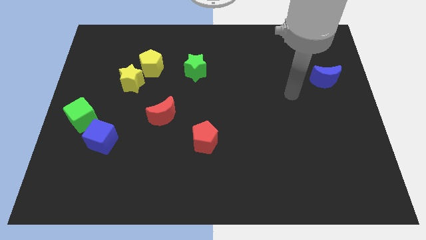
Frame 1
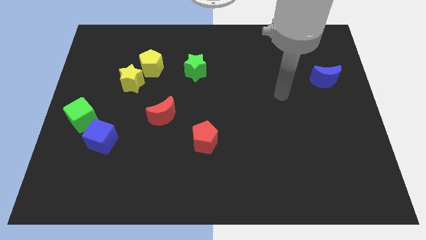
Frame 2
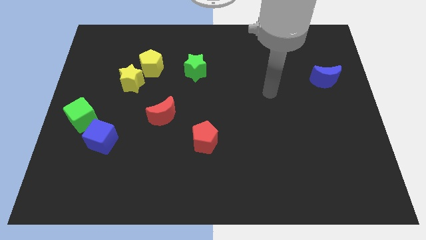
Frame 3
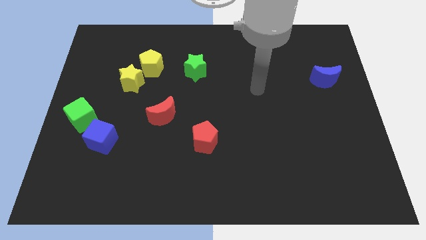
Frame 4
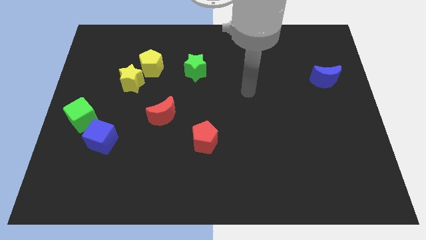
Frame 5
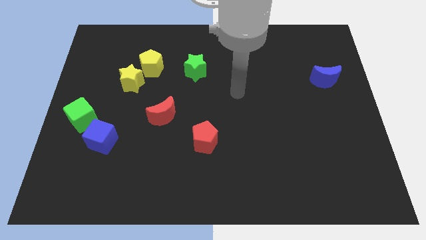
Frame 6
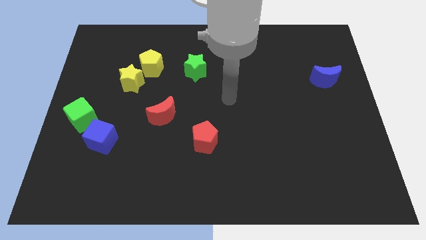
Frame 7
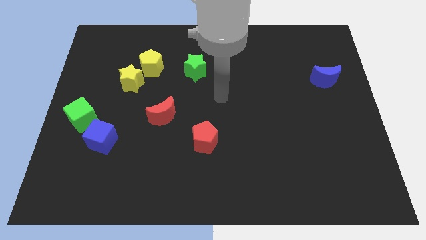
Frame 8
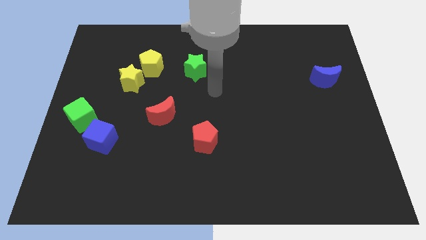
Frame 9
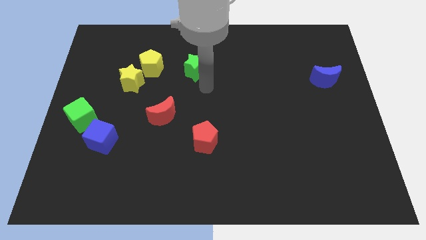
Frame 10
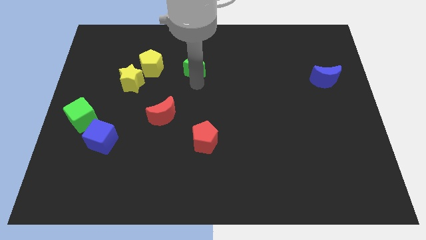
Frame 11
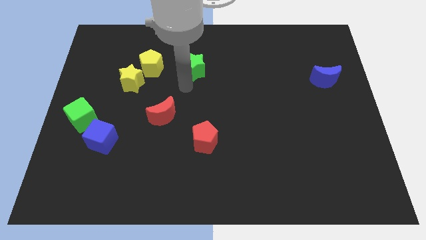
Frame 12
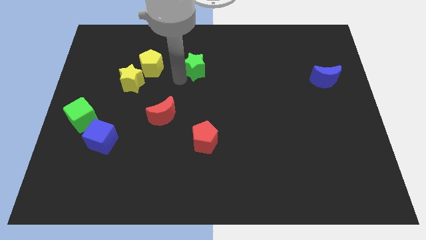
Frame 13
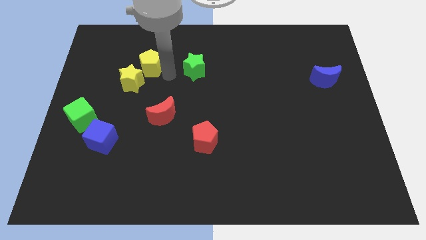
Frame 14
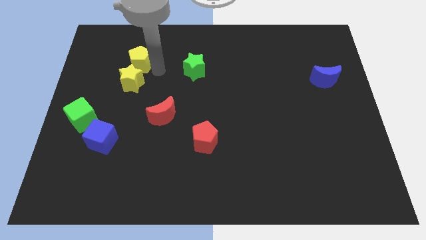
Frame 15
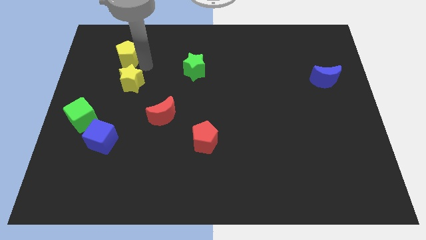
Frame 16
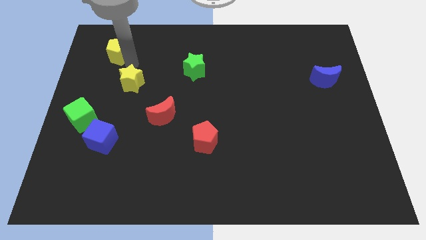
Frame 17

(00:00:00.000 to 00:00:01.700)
pull the yellow star apart from the yellow pentagon

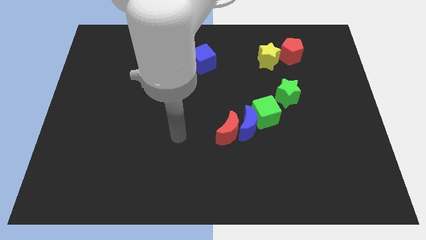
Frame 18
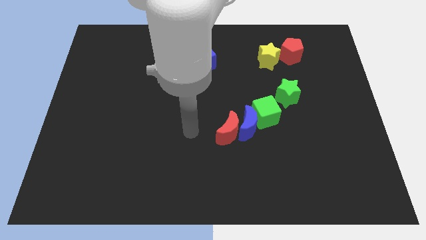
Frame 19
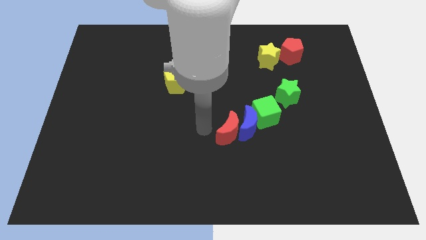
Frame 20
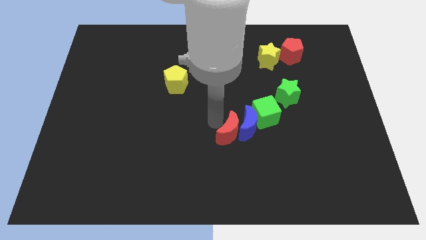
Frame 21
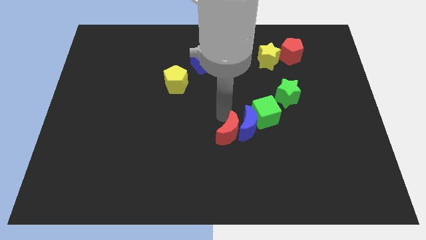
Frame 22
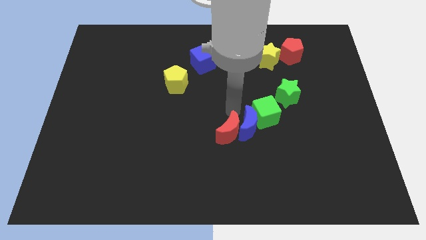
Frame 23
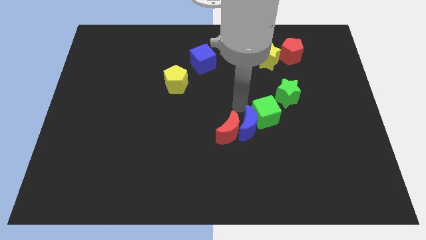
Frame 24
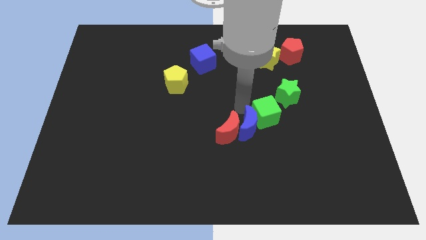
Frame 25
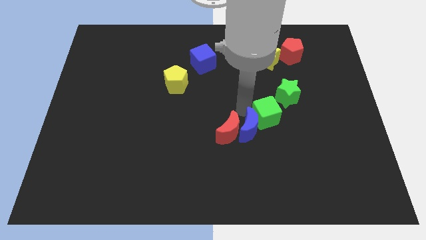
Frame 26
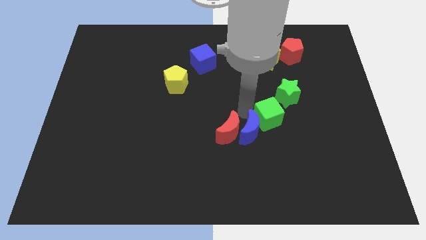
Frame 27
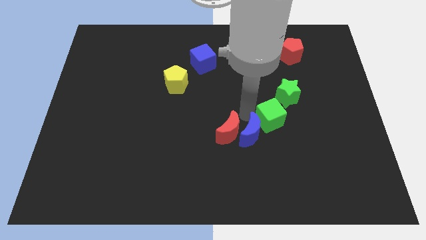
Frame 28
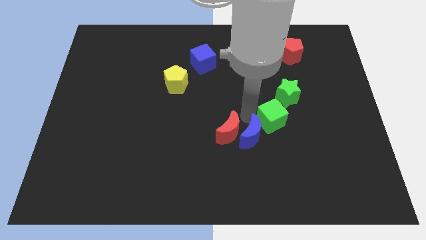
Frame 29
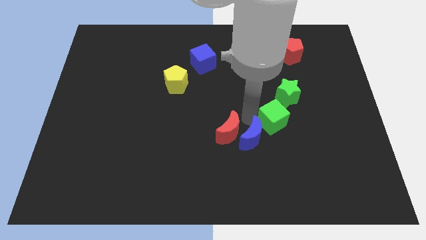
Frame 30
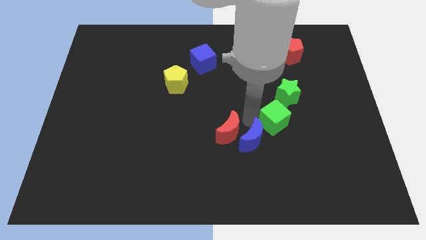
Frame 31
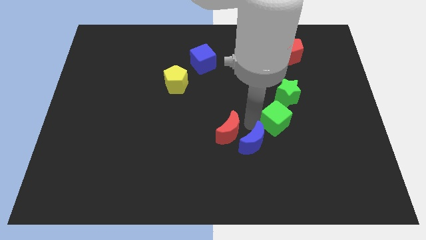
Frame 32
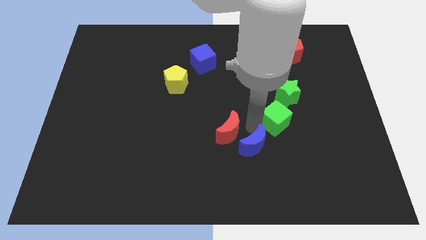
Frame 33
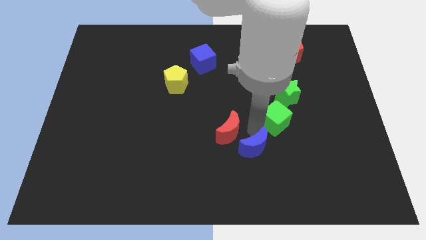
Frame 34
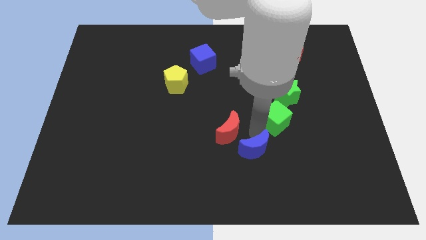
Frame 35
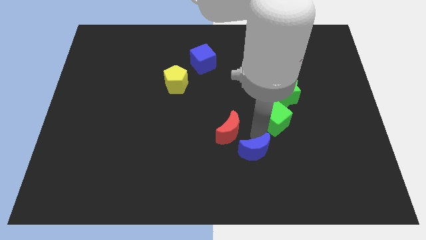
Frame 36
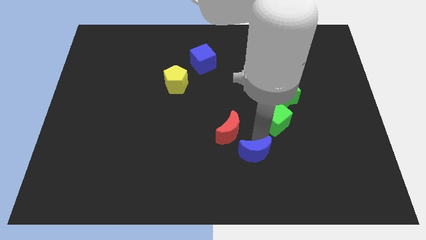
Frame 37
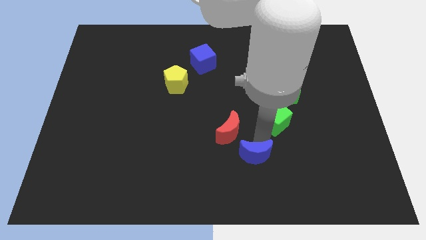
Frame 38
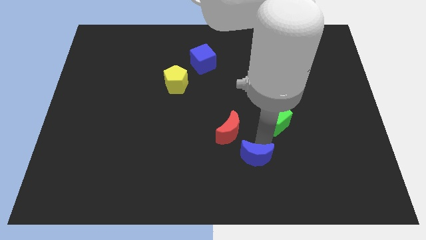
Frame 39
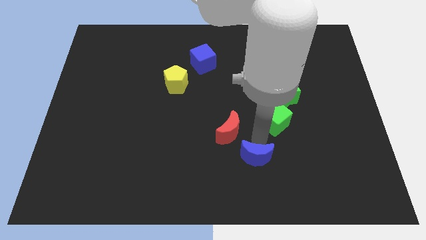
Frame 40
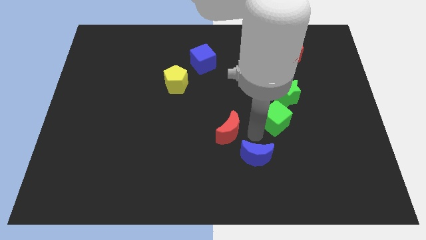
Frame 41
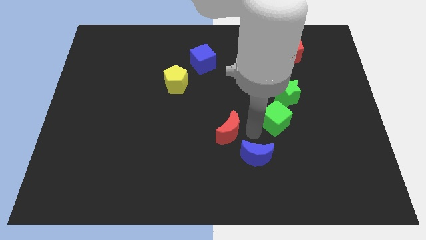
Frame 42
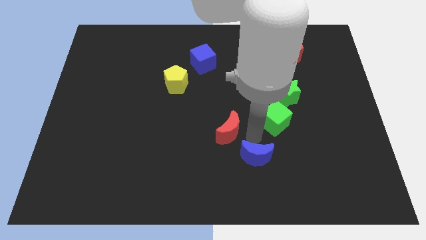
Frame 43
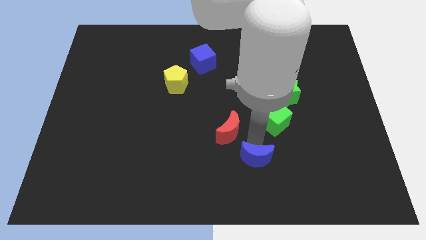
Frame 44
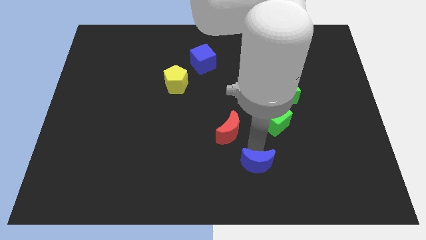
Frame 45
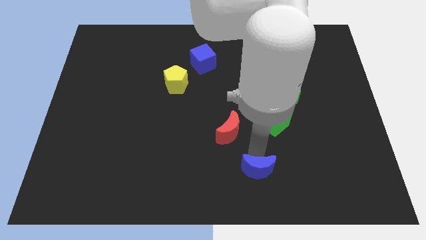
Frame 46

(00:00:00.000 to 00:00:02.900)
pull the blue moon apart from the red moon and green cube

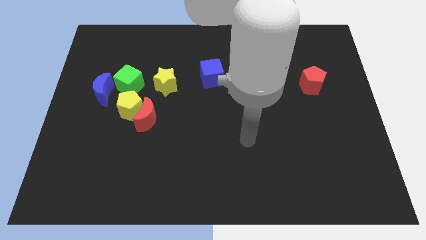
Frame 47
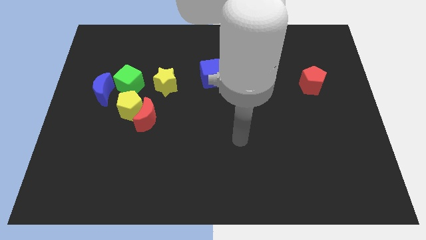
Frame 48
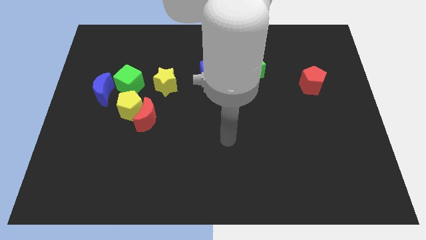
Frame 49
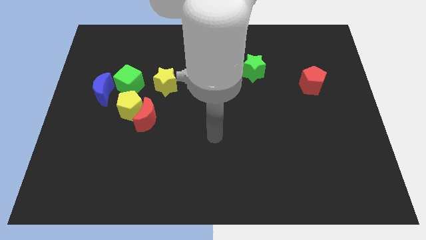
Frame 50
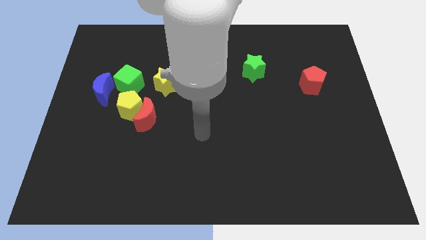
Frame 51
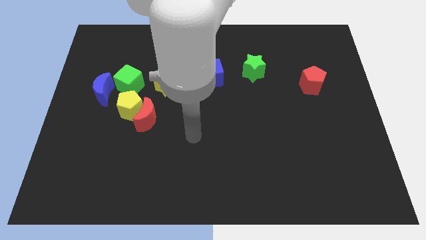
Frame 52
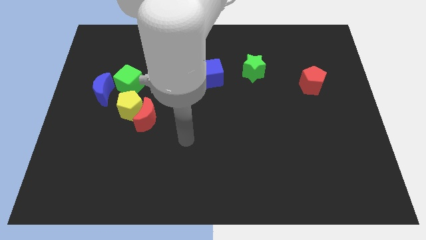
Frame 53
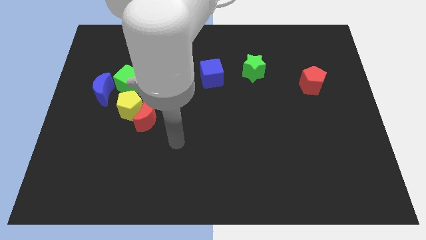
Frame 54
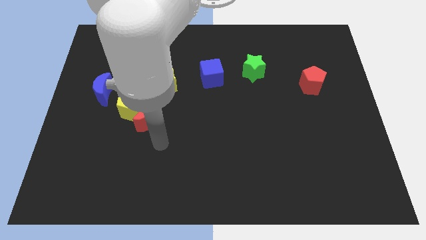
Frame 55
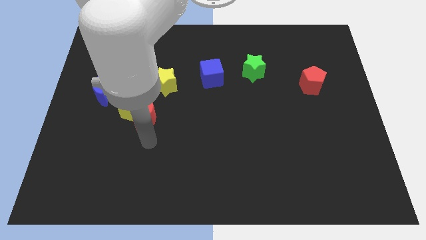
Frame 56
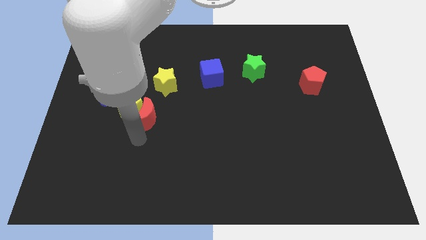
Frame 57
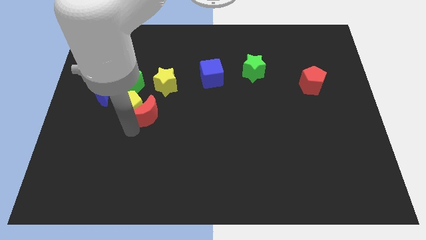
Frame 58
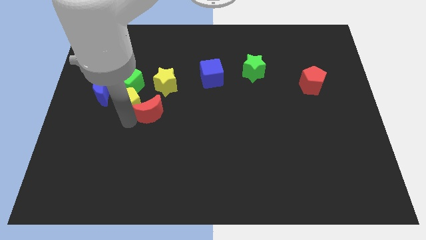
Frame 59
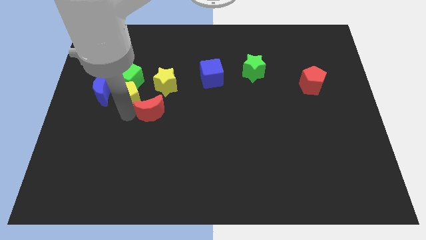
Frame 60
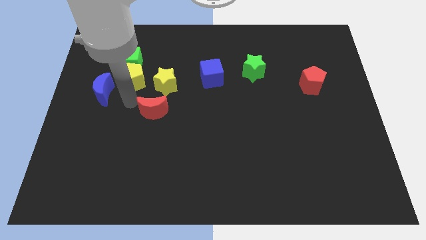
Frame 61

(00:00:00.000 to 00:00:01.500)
move the red moon away from the yellow pentagon

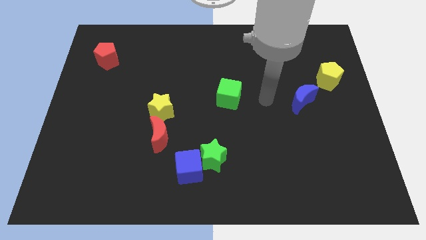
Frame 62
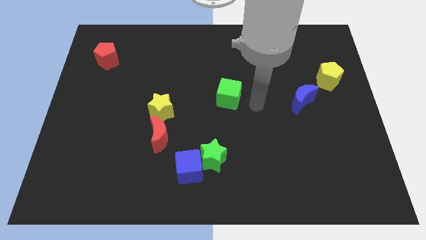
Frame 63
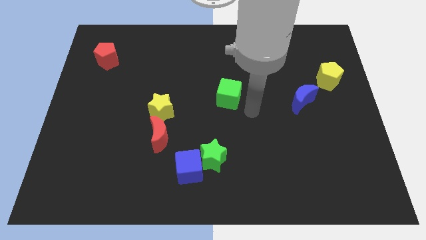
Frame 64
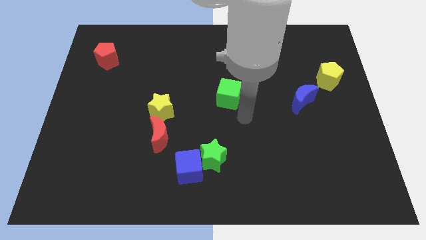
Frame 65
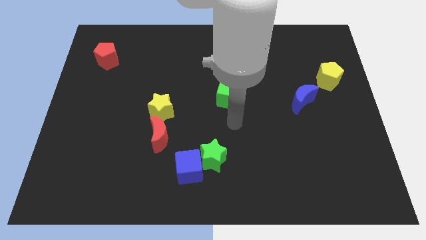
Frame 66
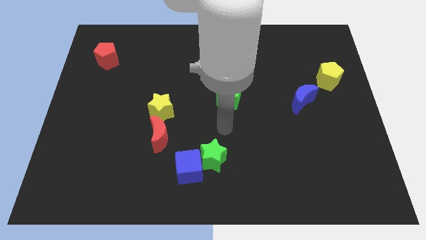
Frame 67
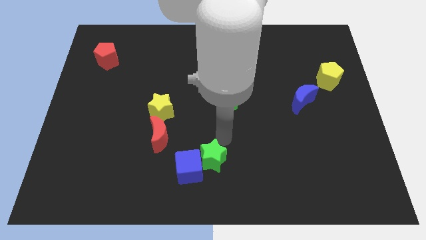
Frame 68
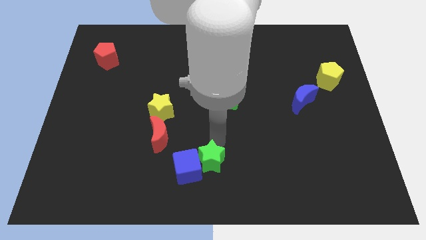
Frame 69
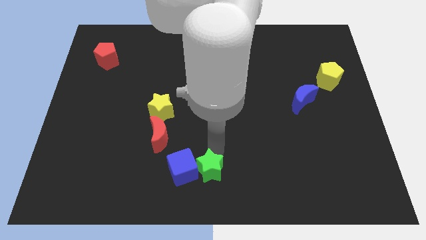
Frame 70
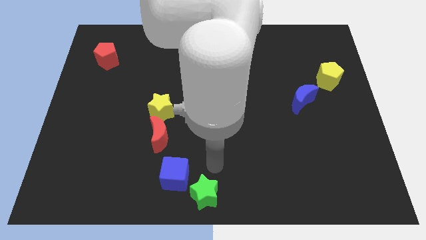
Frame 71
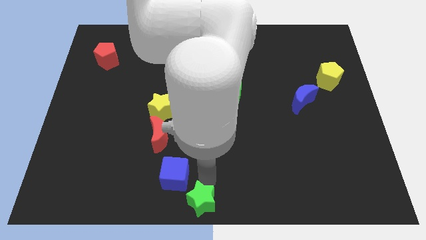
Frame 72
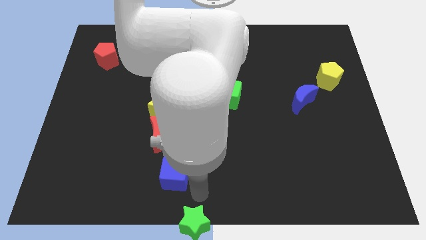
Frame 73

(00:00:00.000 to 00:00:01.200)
move the blue cube away from the green star

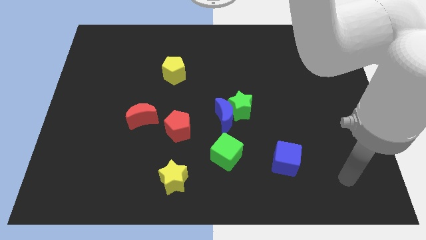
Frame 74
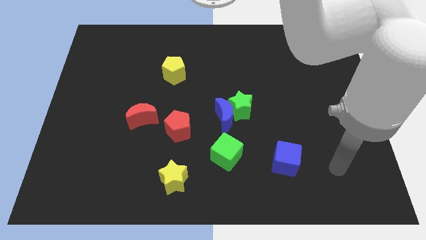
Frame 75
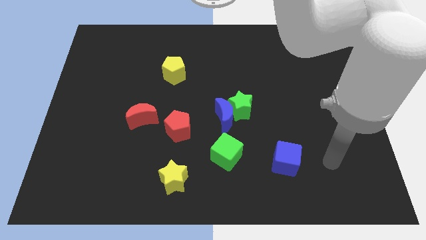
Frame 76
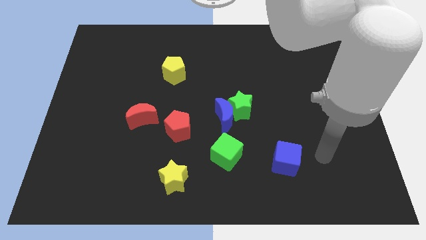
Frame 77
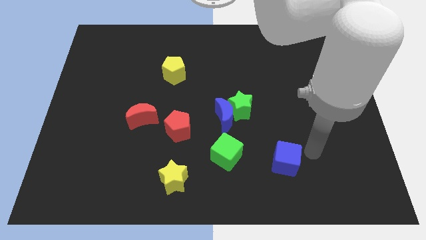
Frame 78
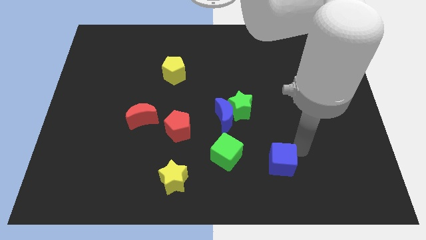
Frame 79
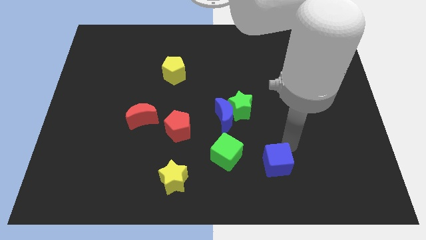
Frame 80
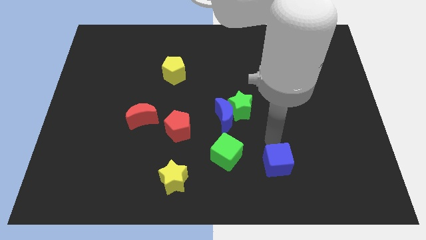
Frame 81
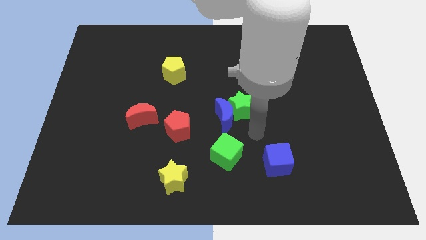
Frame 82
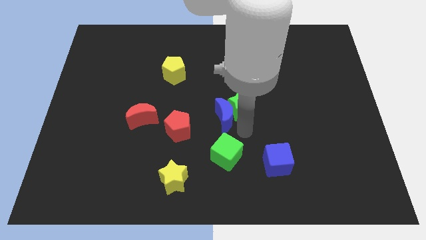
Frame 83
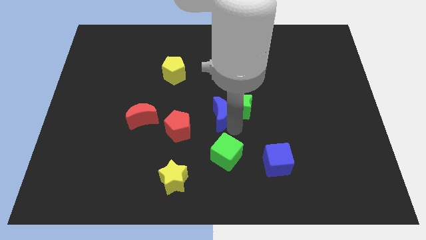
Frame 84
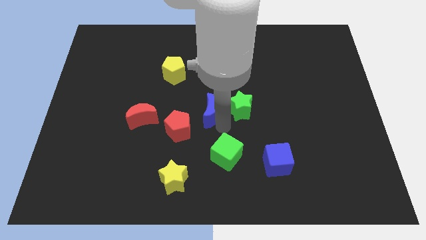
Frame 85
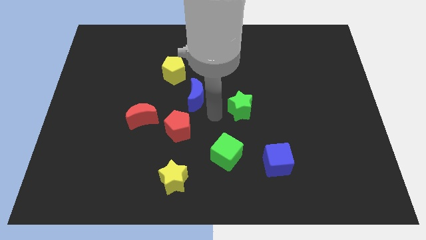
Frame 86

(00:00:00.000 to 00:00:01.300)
pull the green star apart from the blue moon

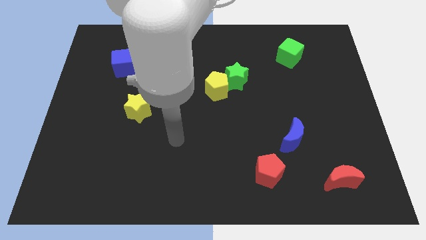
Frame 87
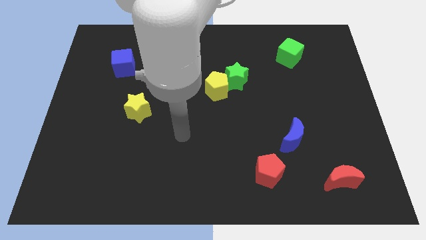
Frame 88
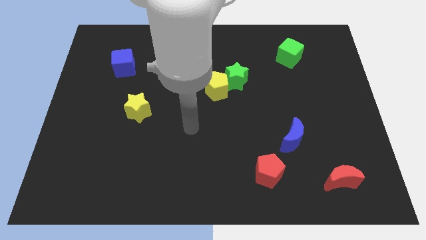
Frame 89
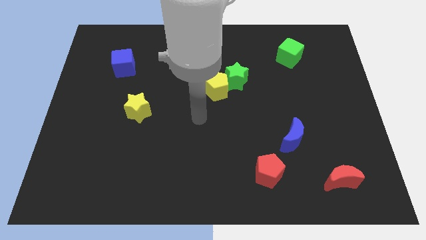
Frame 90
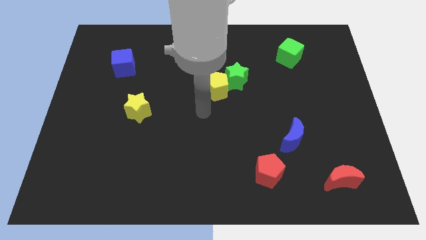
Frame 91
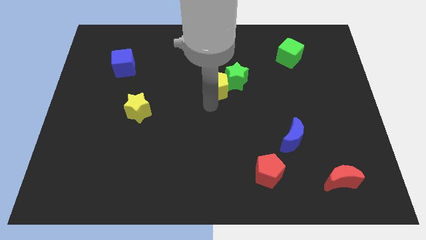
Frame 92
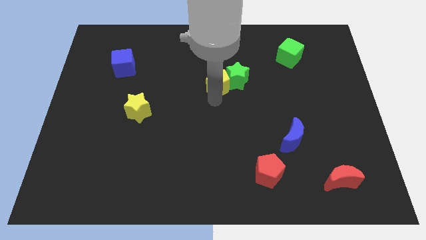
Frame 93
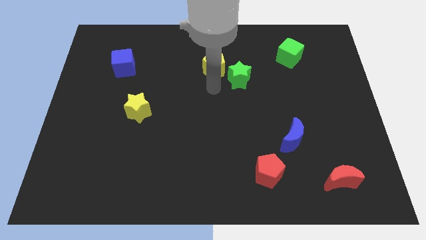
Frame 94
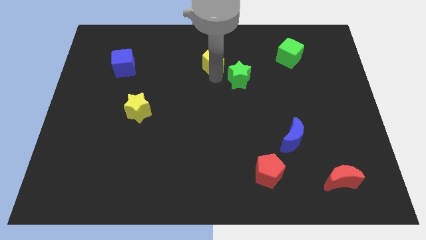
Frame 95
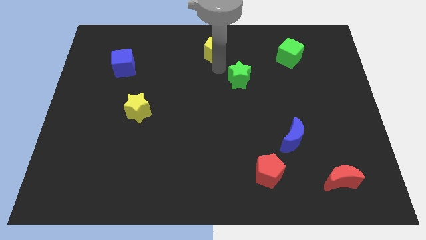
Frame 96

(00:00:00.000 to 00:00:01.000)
pull the green star apart from the yellow pentagon
